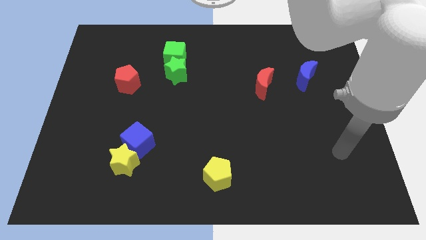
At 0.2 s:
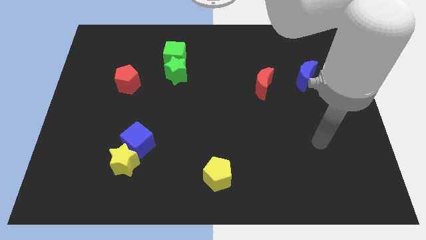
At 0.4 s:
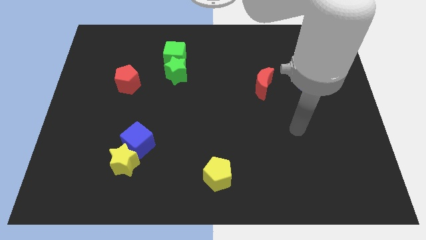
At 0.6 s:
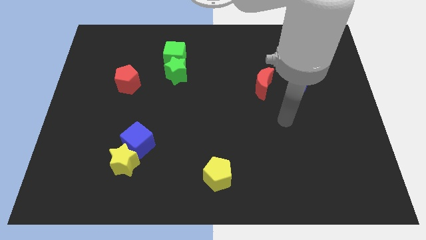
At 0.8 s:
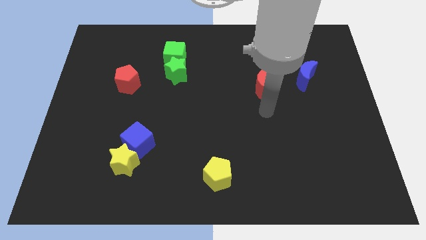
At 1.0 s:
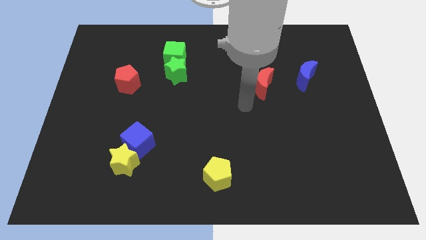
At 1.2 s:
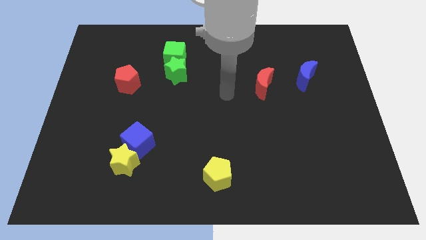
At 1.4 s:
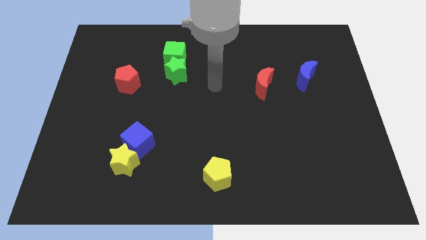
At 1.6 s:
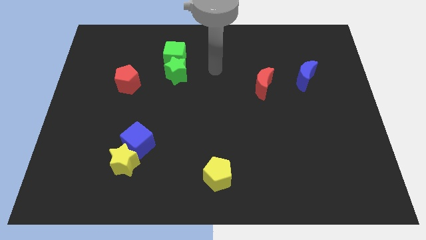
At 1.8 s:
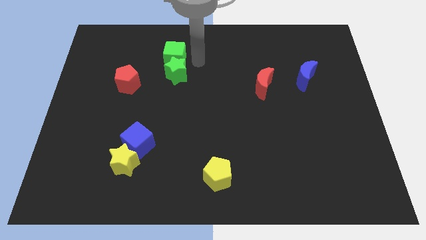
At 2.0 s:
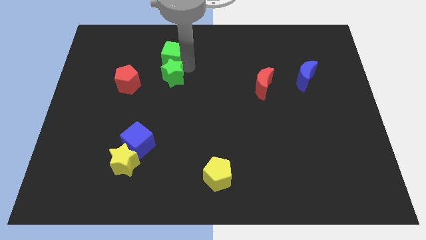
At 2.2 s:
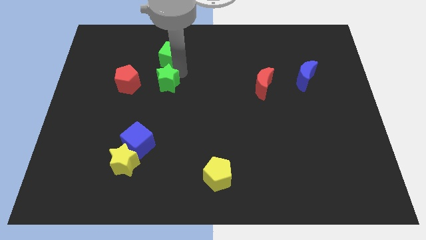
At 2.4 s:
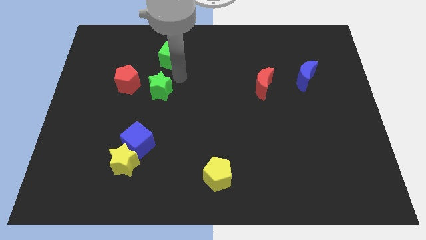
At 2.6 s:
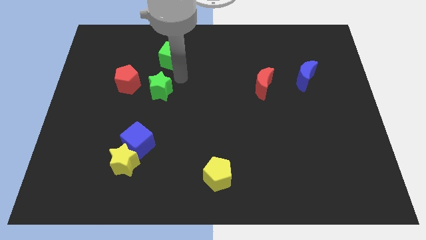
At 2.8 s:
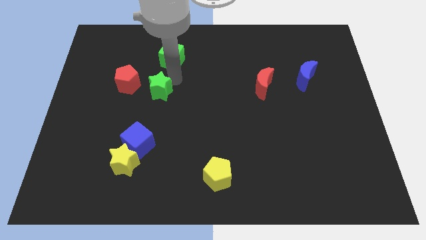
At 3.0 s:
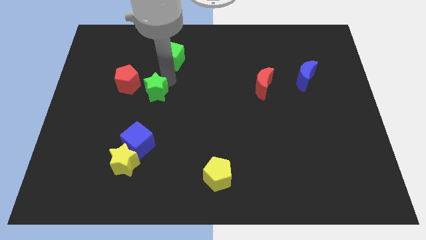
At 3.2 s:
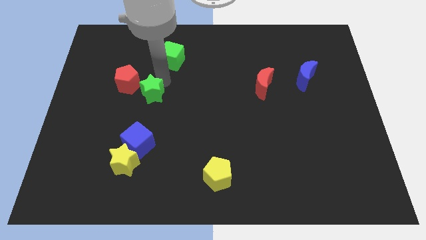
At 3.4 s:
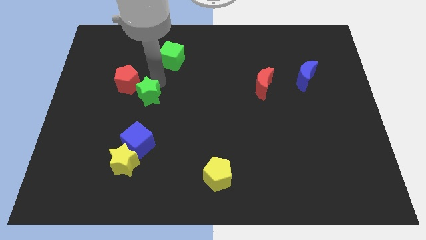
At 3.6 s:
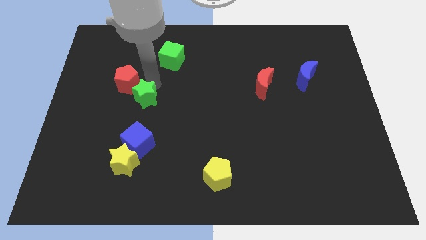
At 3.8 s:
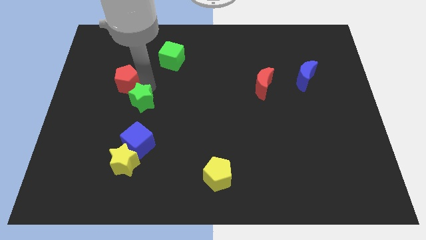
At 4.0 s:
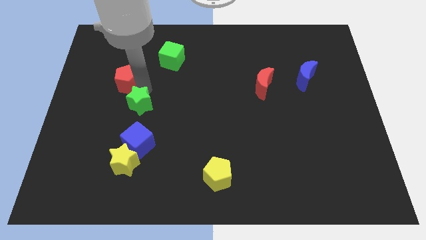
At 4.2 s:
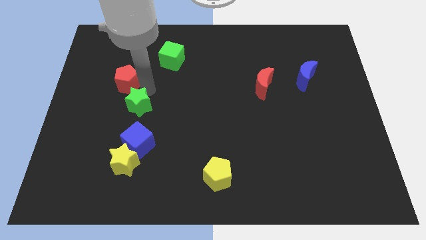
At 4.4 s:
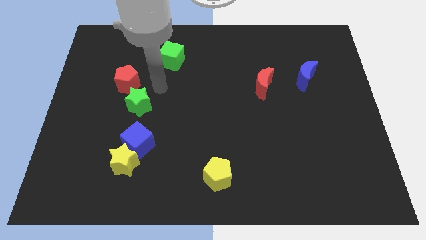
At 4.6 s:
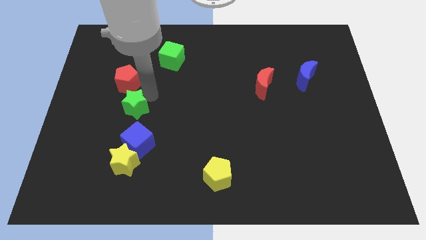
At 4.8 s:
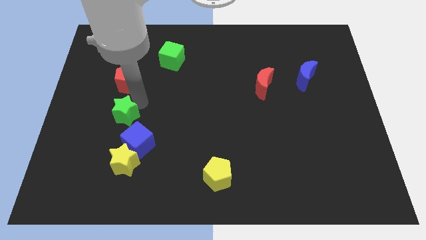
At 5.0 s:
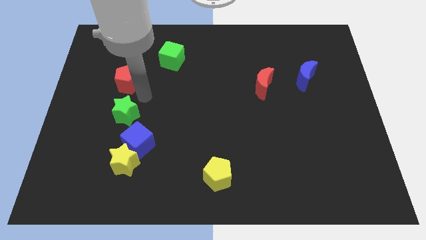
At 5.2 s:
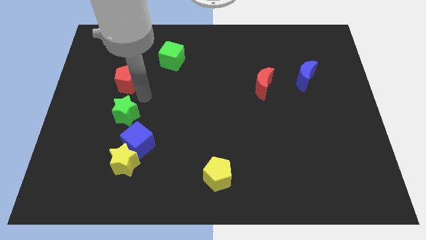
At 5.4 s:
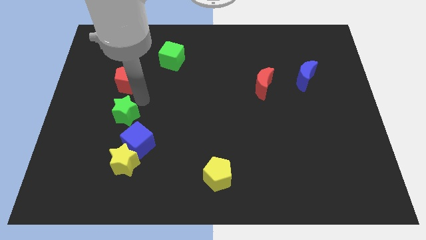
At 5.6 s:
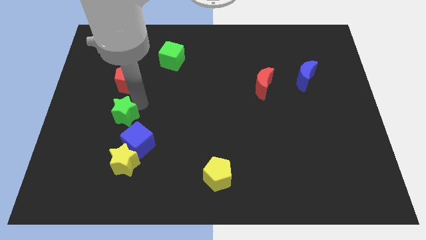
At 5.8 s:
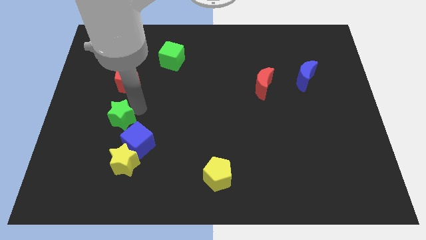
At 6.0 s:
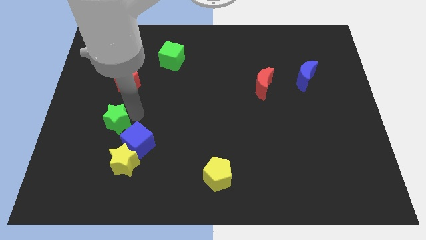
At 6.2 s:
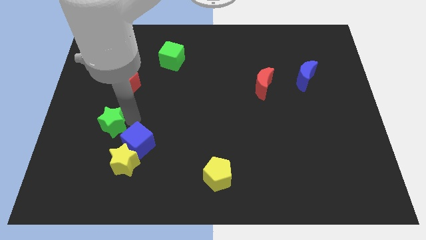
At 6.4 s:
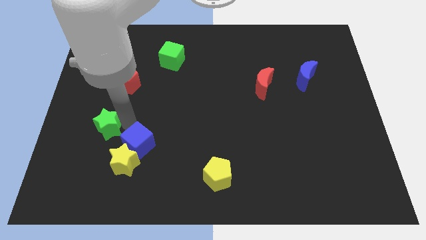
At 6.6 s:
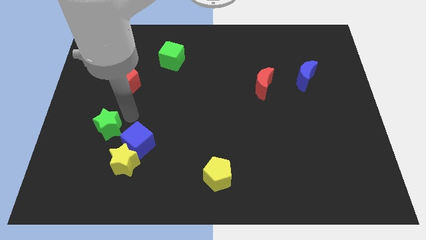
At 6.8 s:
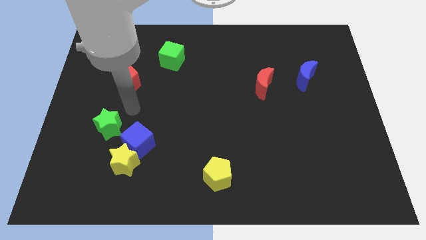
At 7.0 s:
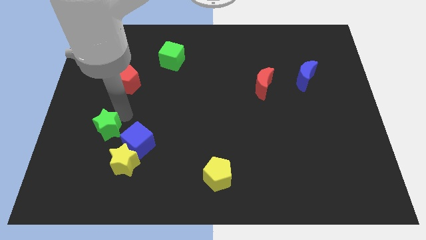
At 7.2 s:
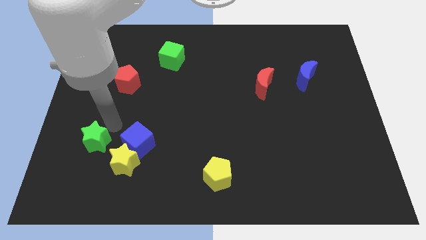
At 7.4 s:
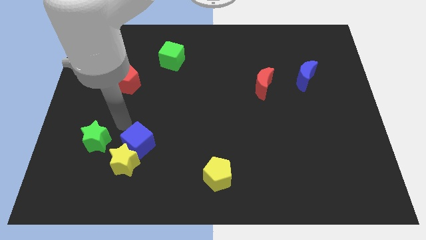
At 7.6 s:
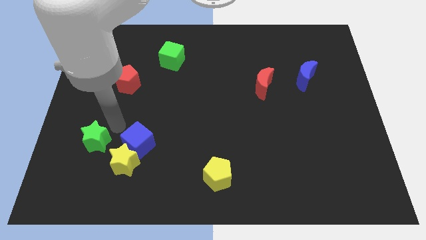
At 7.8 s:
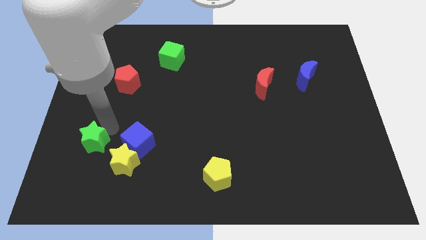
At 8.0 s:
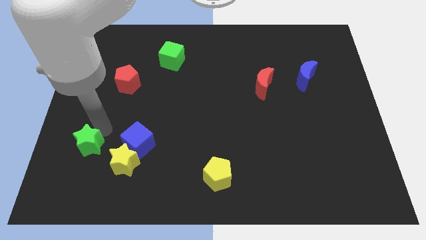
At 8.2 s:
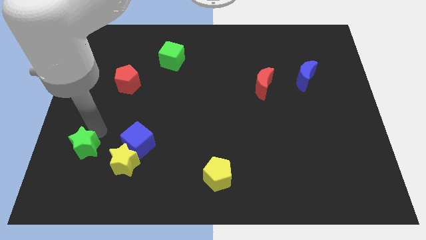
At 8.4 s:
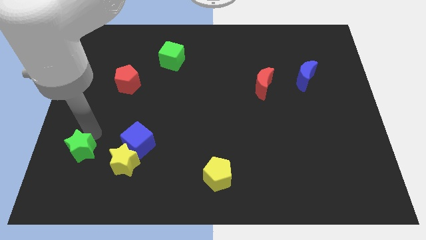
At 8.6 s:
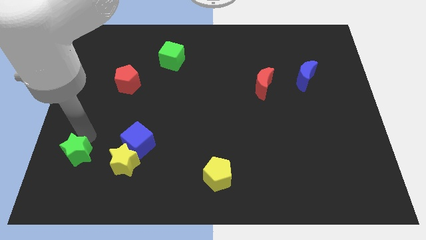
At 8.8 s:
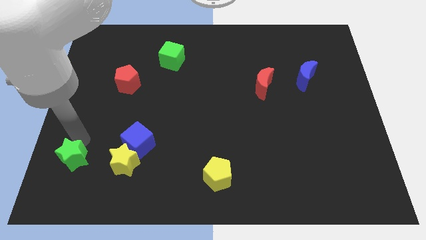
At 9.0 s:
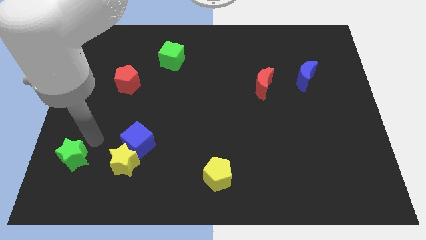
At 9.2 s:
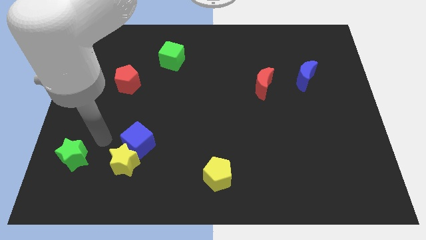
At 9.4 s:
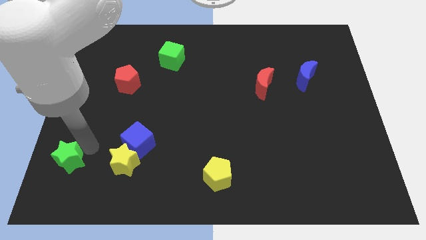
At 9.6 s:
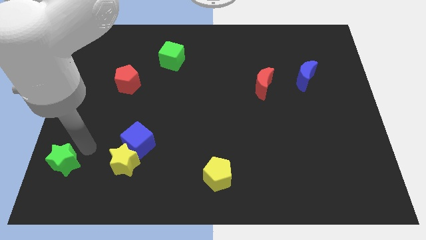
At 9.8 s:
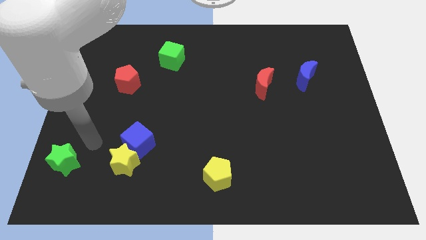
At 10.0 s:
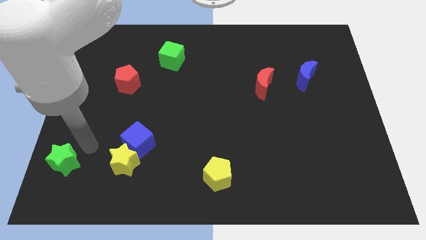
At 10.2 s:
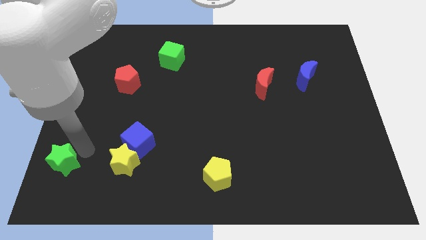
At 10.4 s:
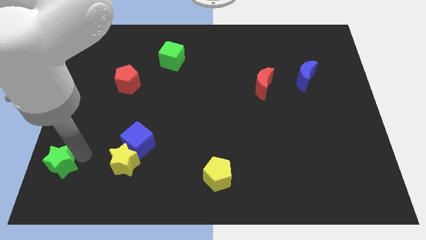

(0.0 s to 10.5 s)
slide the green star to the bottom left

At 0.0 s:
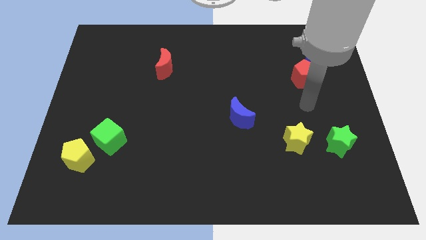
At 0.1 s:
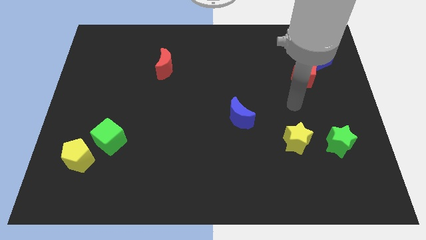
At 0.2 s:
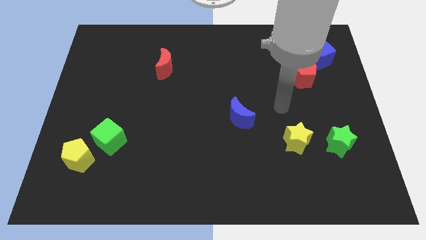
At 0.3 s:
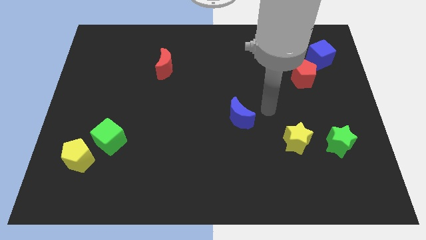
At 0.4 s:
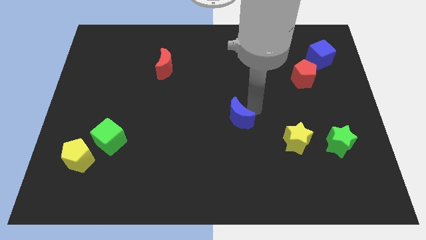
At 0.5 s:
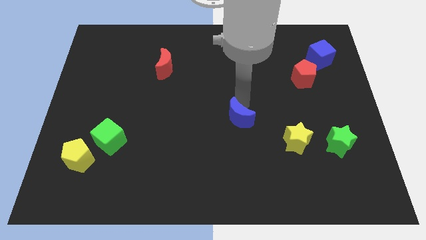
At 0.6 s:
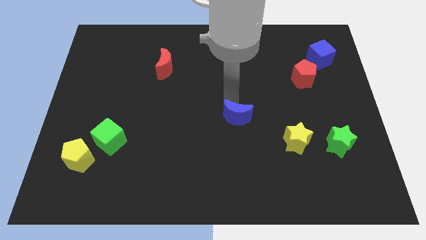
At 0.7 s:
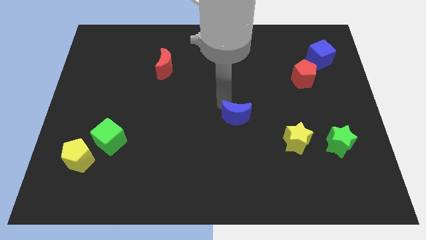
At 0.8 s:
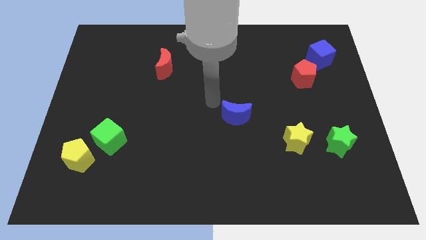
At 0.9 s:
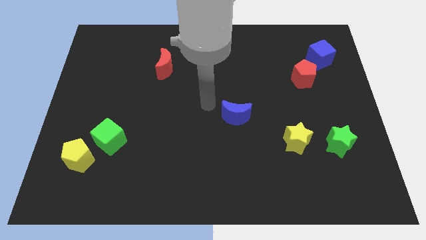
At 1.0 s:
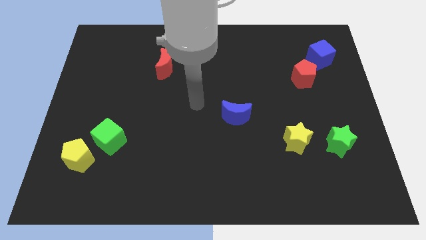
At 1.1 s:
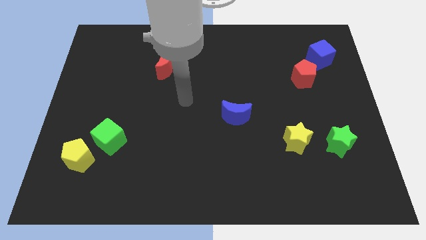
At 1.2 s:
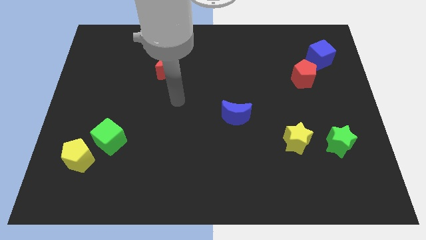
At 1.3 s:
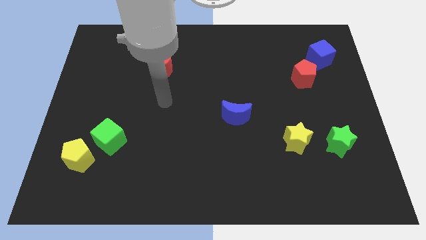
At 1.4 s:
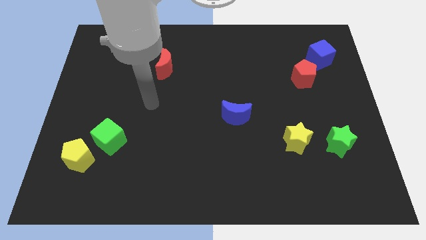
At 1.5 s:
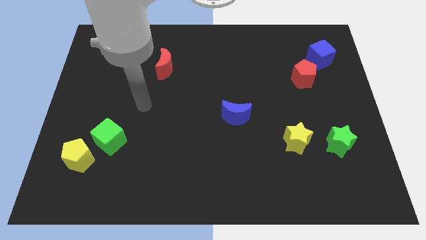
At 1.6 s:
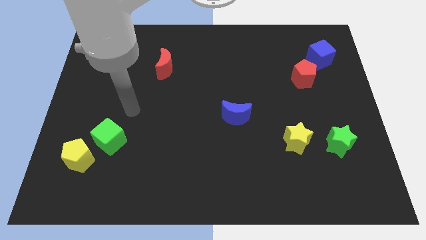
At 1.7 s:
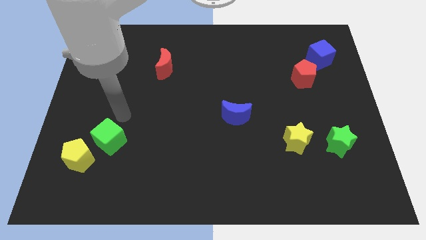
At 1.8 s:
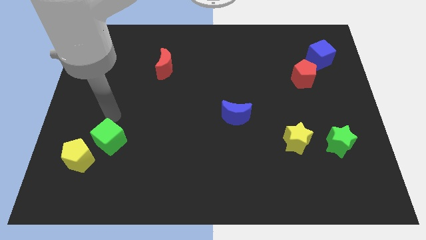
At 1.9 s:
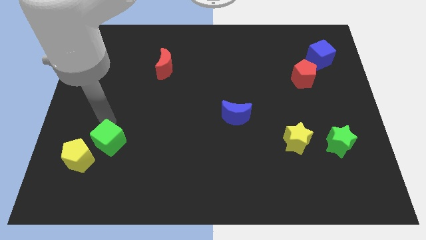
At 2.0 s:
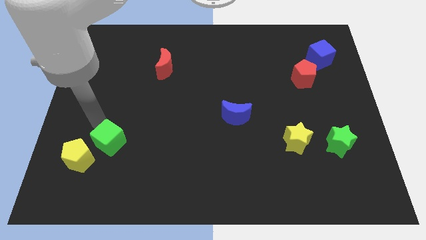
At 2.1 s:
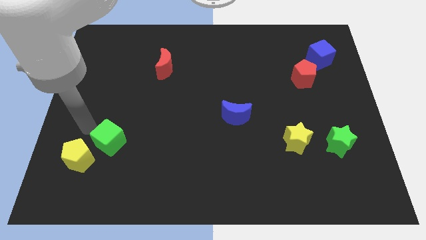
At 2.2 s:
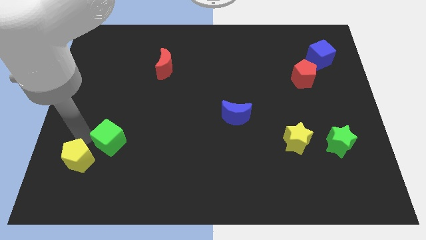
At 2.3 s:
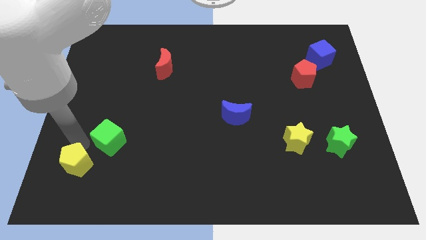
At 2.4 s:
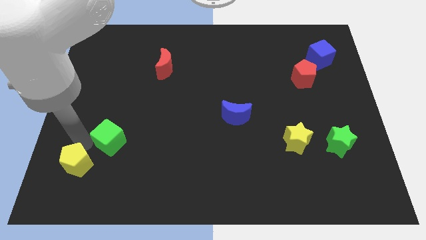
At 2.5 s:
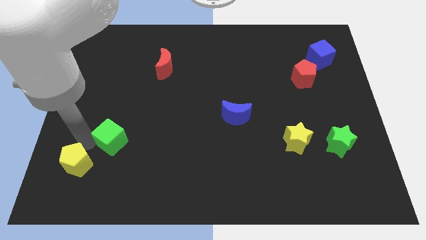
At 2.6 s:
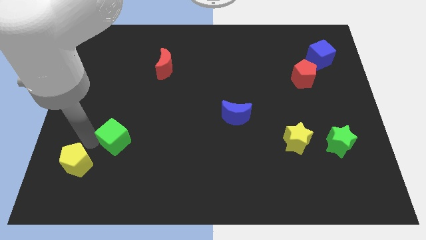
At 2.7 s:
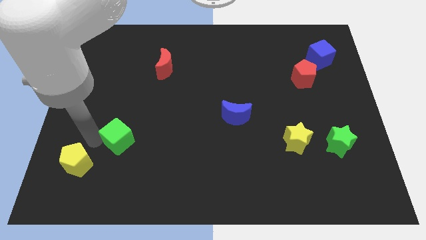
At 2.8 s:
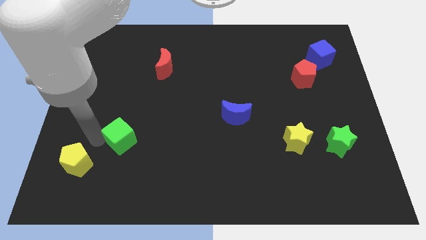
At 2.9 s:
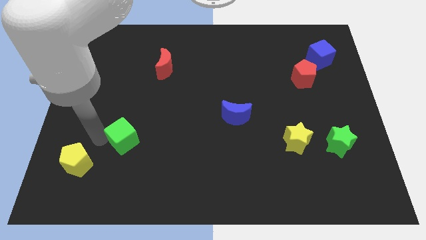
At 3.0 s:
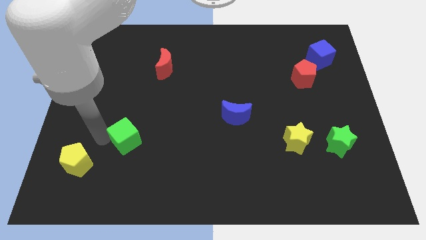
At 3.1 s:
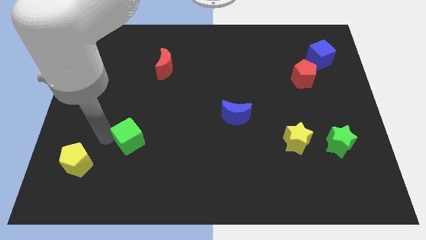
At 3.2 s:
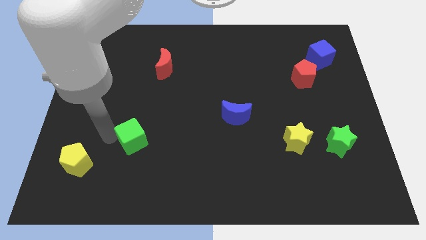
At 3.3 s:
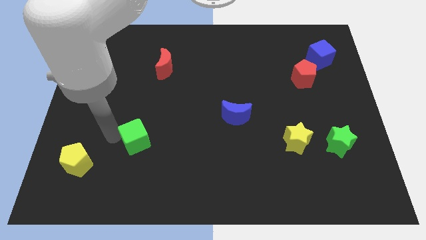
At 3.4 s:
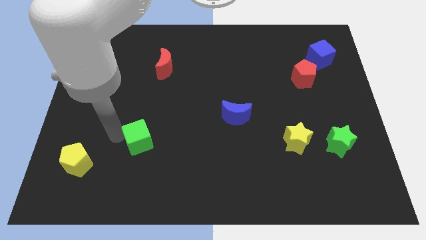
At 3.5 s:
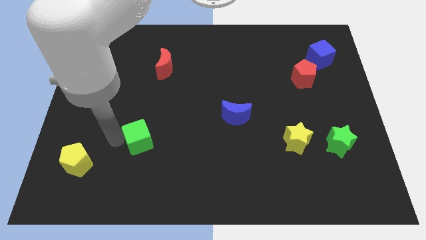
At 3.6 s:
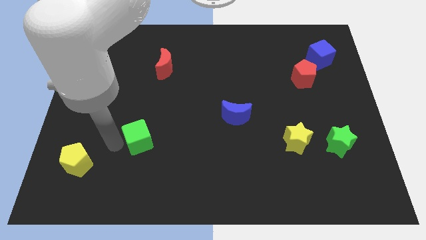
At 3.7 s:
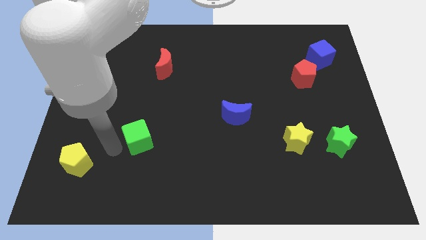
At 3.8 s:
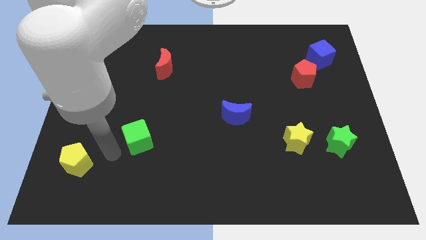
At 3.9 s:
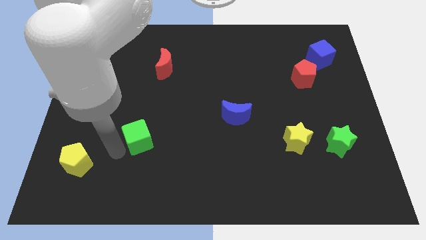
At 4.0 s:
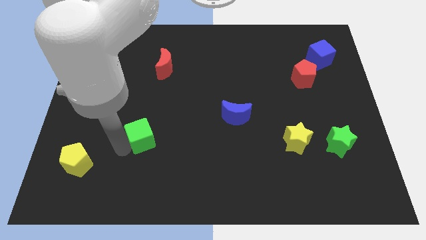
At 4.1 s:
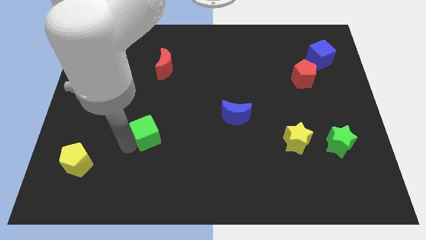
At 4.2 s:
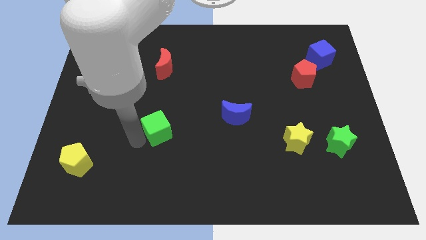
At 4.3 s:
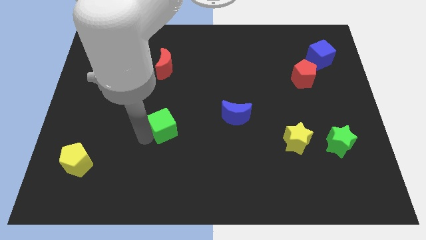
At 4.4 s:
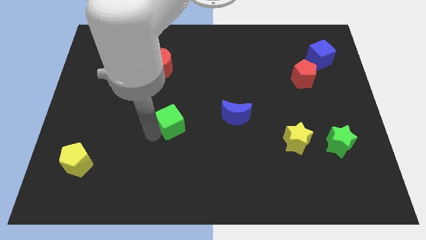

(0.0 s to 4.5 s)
slide the green cube to the middle
